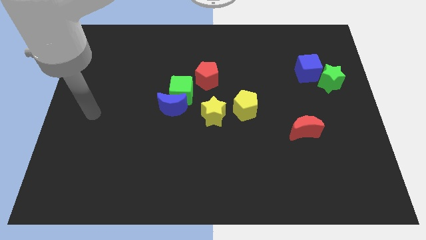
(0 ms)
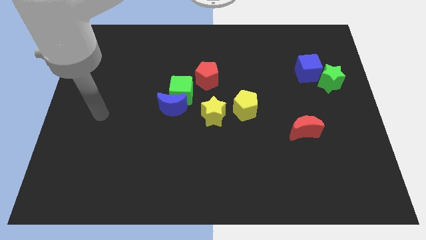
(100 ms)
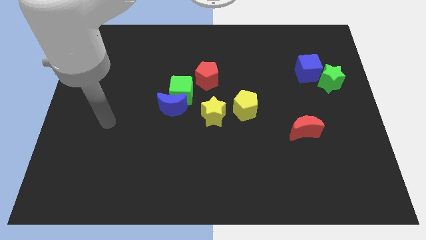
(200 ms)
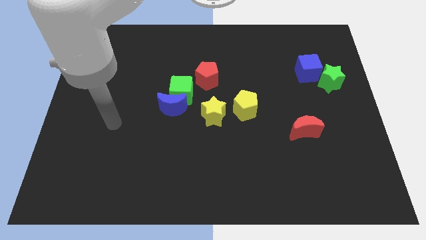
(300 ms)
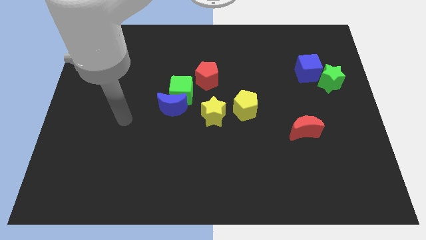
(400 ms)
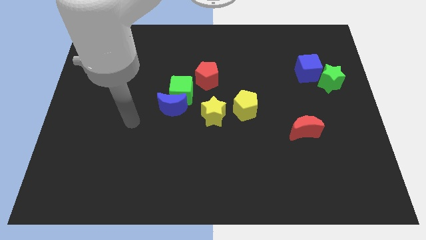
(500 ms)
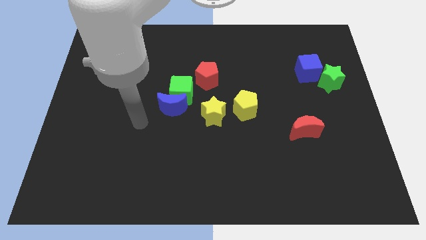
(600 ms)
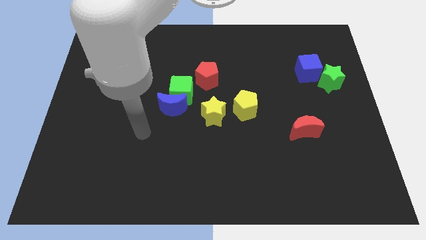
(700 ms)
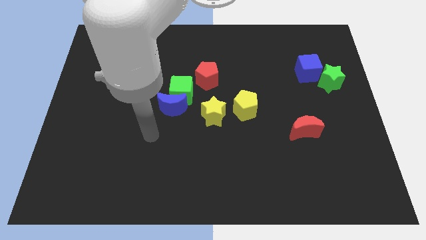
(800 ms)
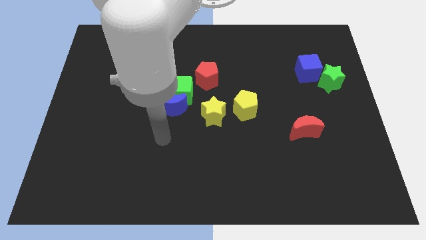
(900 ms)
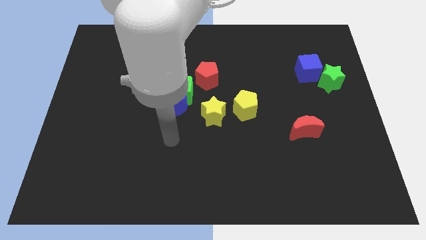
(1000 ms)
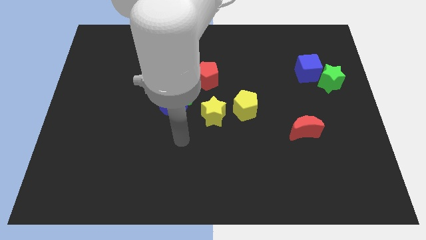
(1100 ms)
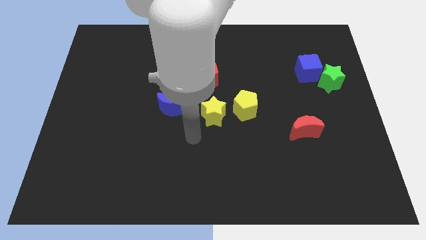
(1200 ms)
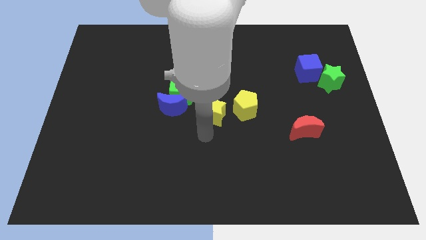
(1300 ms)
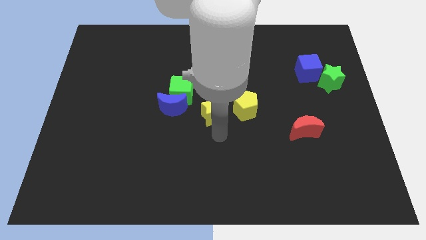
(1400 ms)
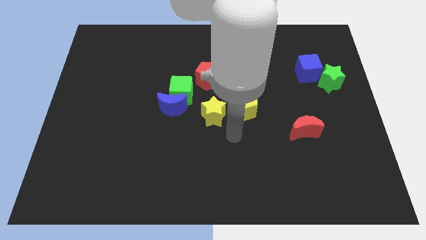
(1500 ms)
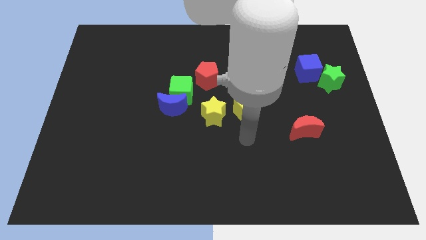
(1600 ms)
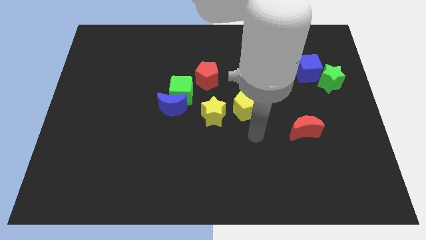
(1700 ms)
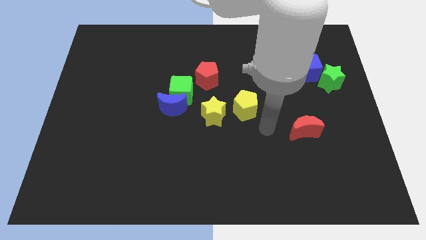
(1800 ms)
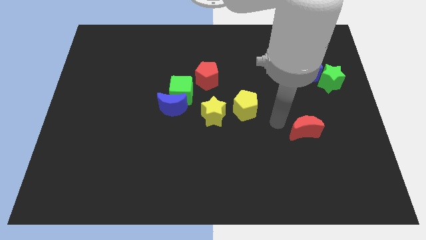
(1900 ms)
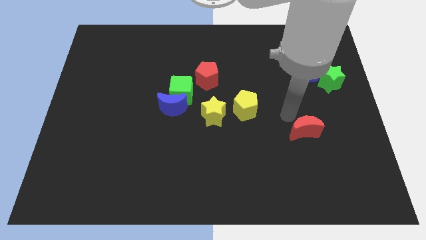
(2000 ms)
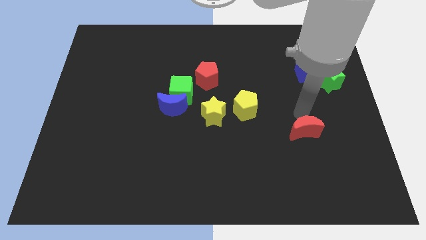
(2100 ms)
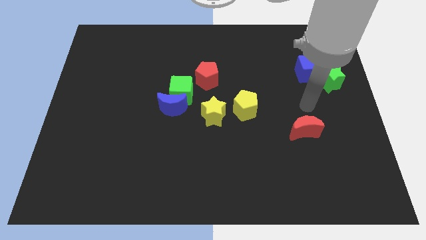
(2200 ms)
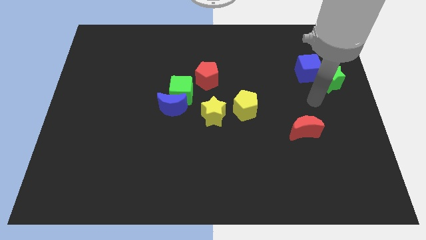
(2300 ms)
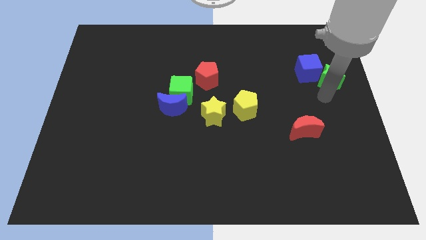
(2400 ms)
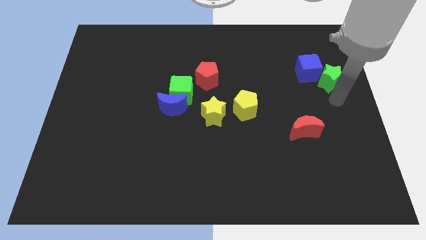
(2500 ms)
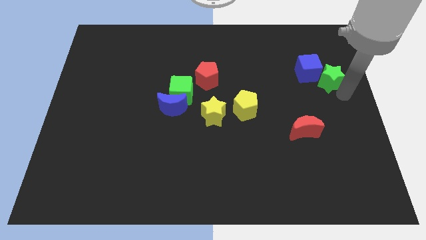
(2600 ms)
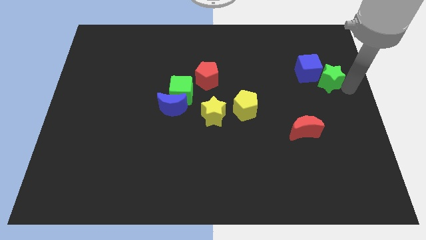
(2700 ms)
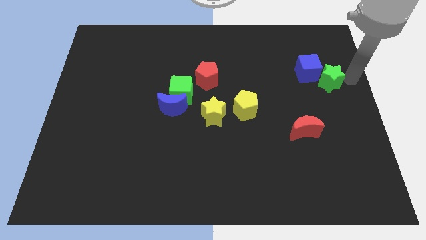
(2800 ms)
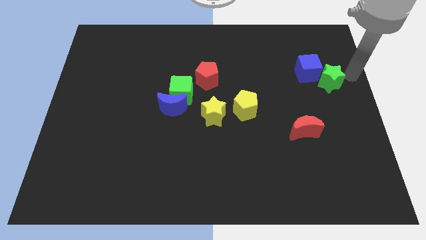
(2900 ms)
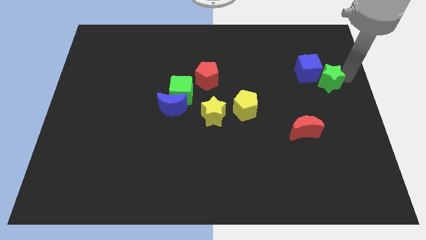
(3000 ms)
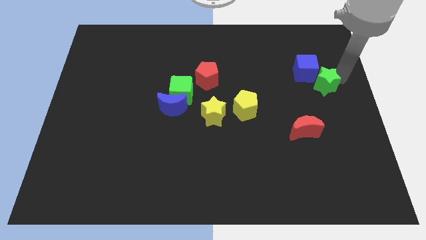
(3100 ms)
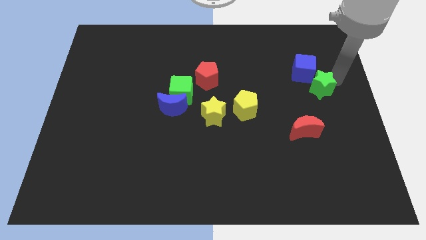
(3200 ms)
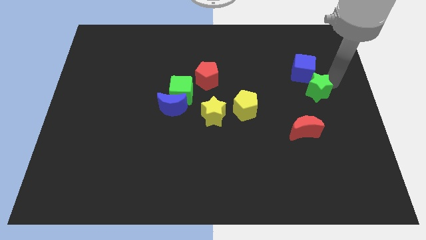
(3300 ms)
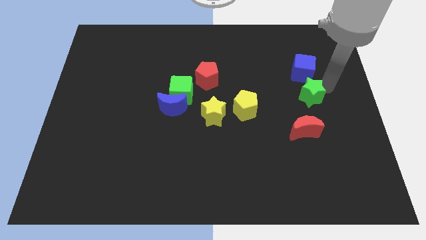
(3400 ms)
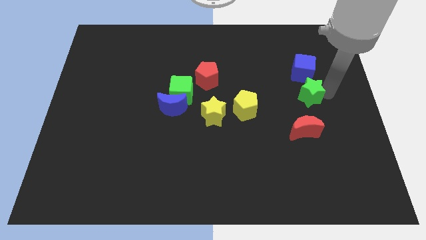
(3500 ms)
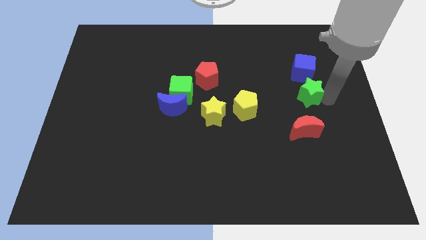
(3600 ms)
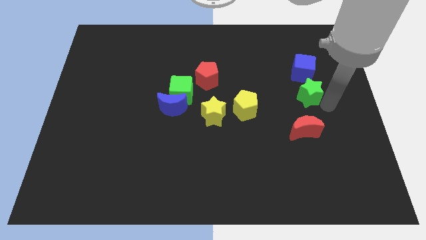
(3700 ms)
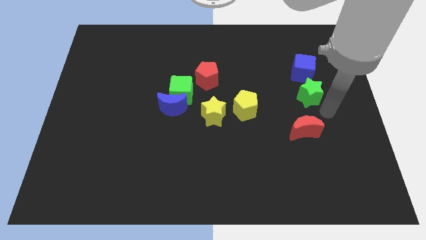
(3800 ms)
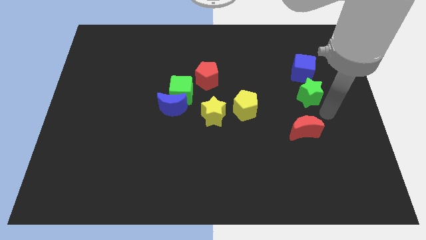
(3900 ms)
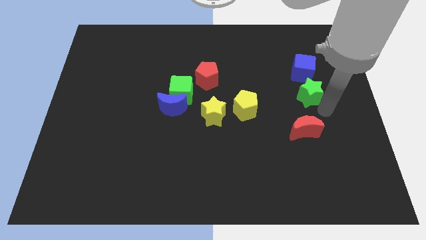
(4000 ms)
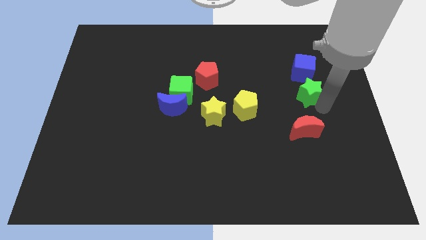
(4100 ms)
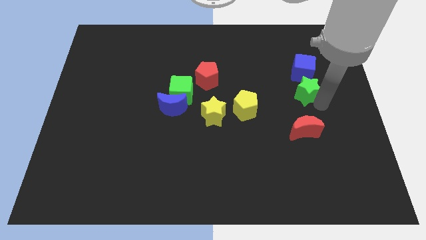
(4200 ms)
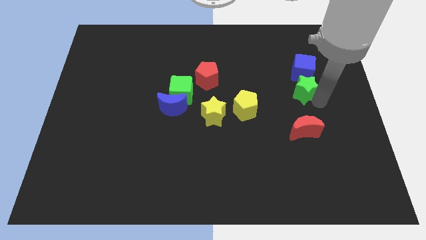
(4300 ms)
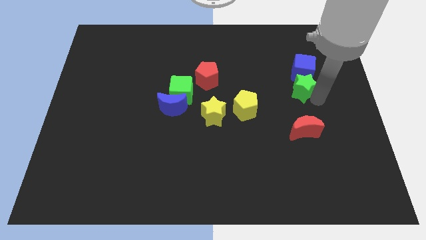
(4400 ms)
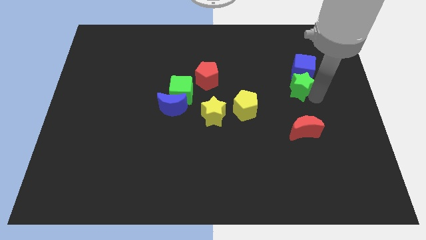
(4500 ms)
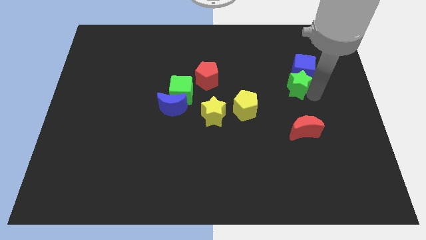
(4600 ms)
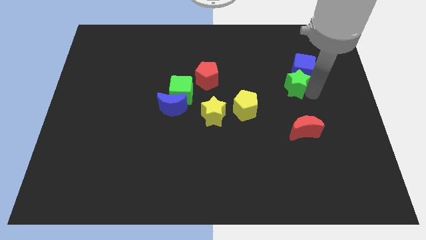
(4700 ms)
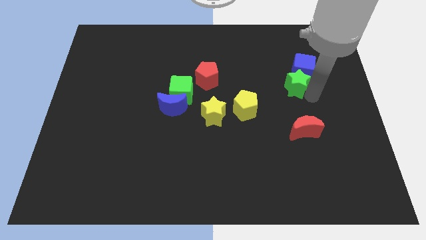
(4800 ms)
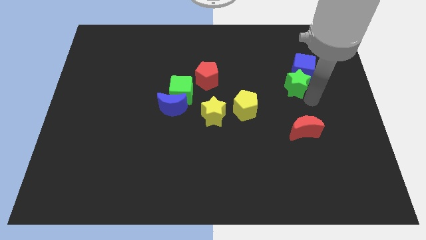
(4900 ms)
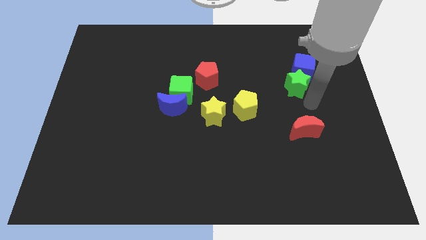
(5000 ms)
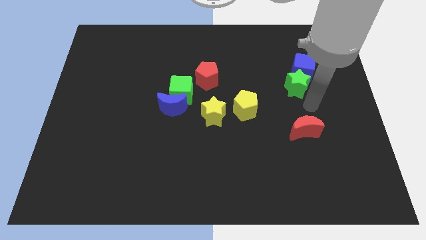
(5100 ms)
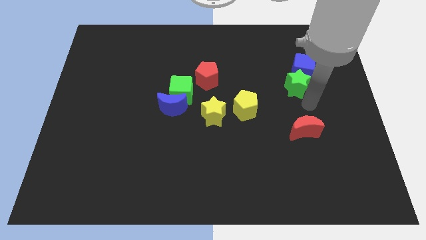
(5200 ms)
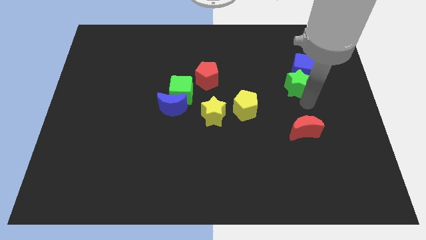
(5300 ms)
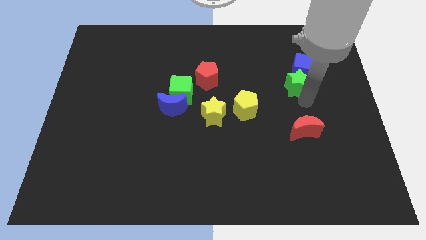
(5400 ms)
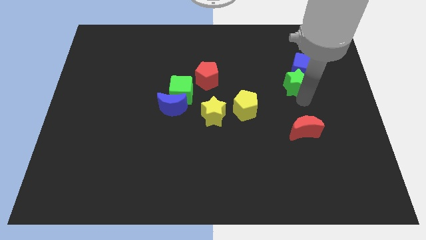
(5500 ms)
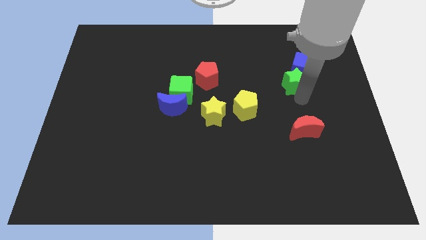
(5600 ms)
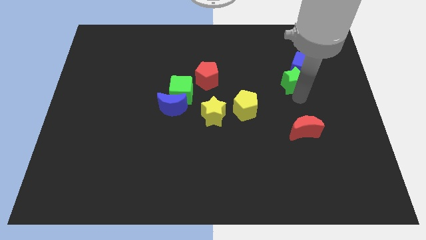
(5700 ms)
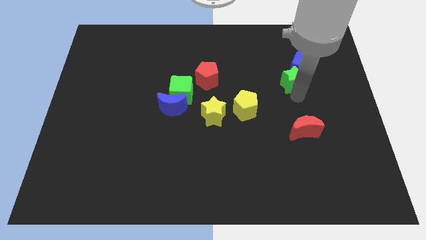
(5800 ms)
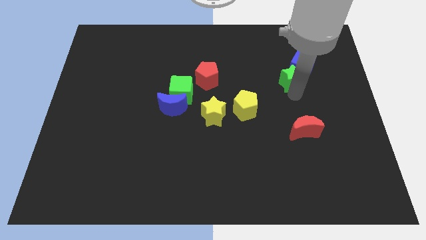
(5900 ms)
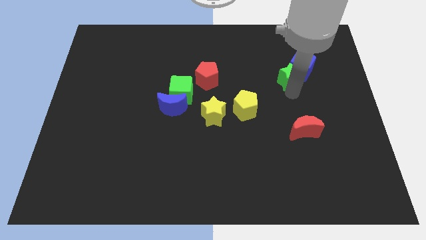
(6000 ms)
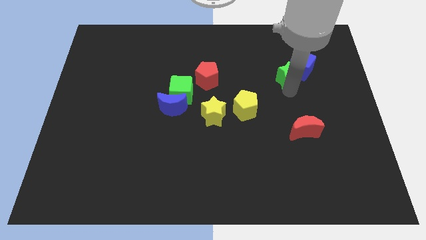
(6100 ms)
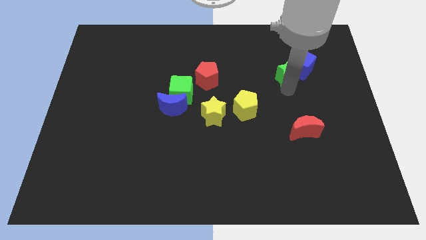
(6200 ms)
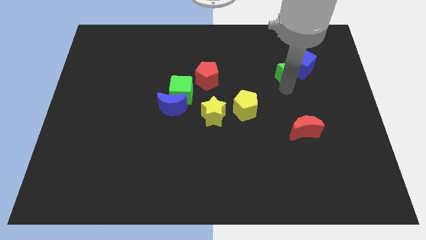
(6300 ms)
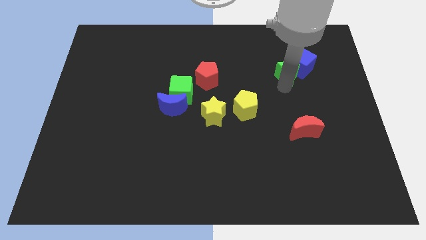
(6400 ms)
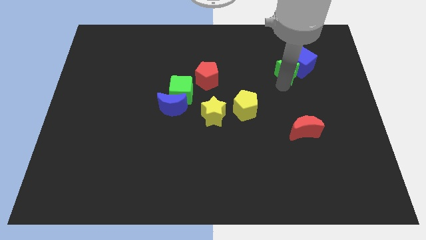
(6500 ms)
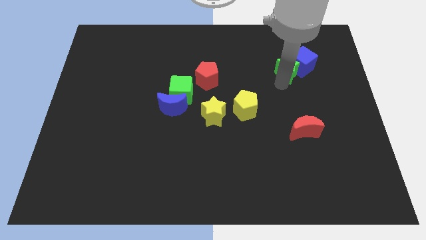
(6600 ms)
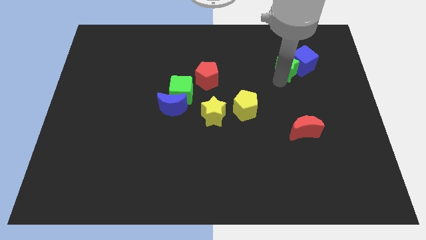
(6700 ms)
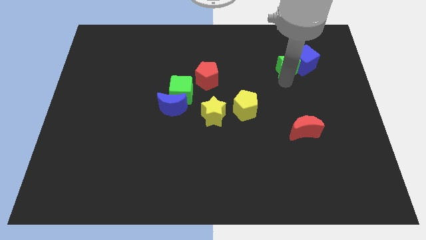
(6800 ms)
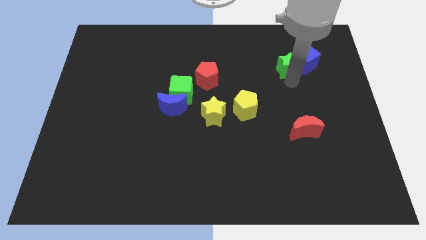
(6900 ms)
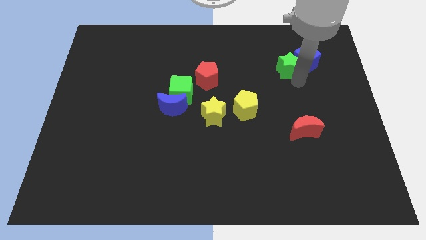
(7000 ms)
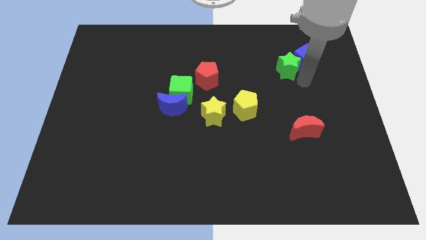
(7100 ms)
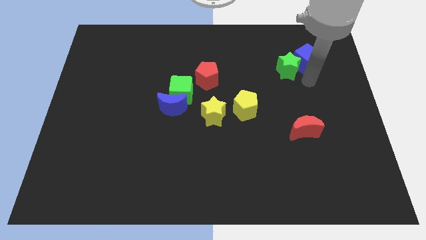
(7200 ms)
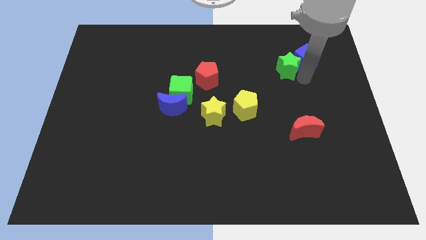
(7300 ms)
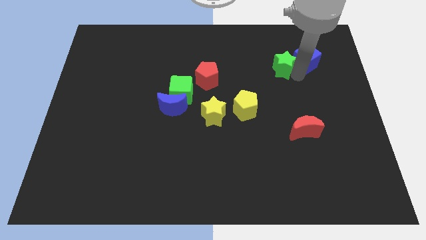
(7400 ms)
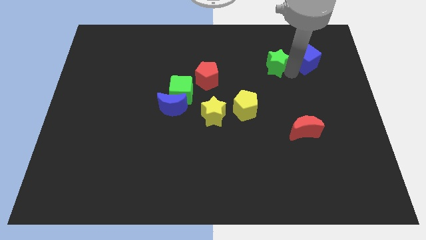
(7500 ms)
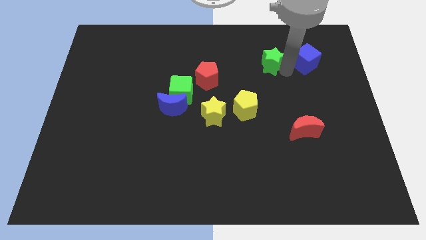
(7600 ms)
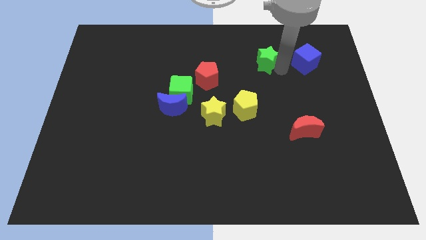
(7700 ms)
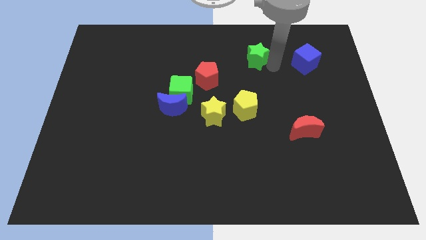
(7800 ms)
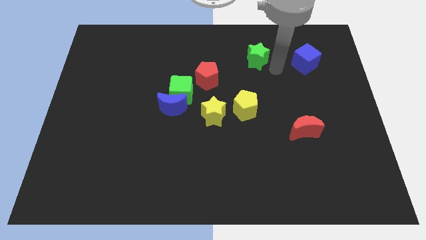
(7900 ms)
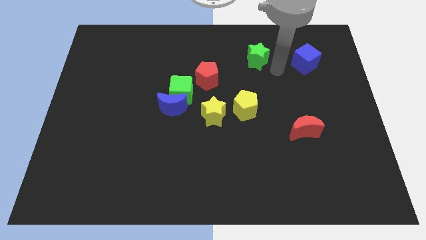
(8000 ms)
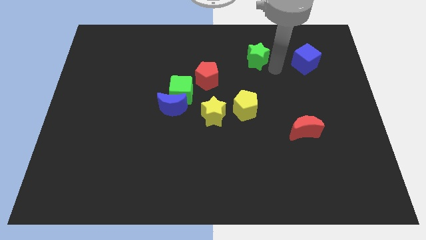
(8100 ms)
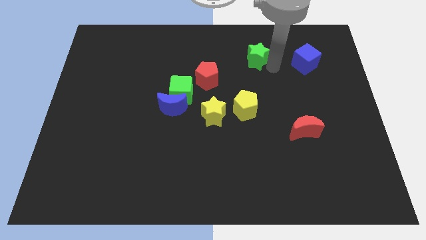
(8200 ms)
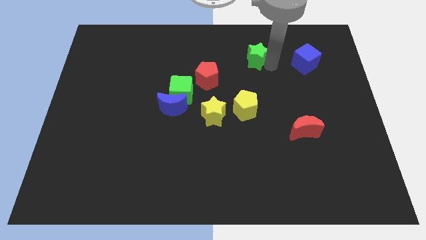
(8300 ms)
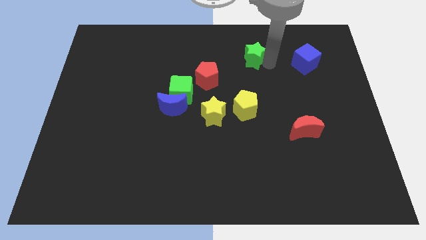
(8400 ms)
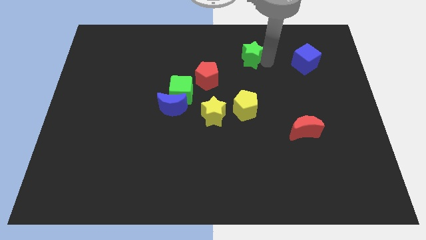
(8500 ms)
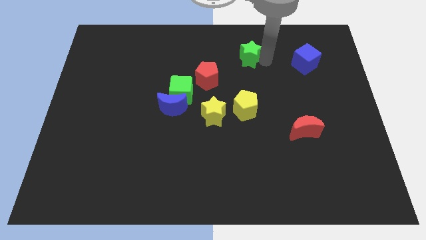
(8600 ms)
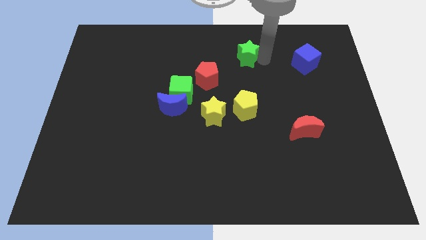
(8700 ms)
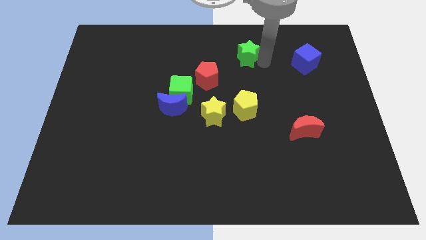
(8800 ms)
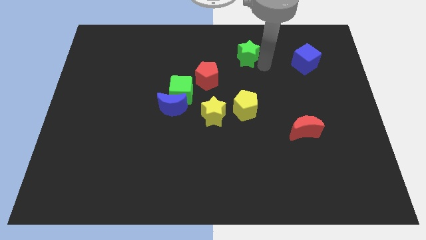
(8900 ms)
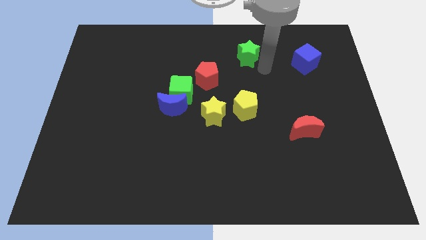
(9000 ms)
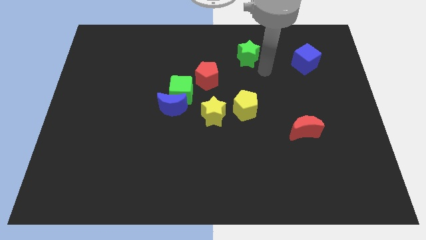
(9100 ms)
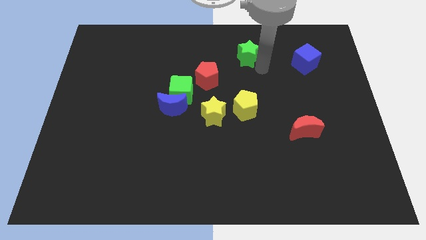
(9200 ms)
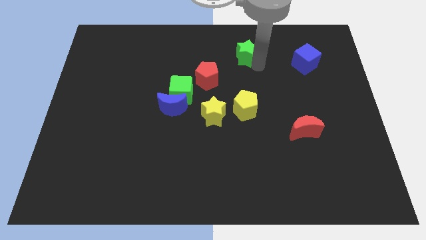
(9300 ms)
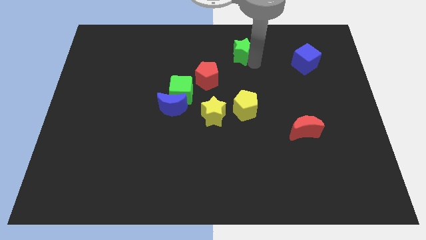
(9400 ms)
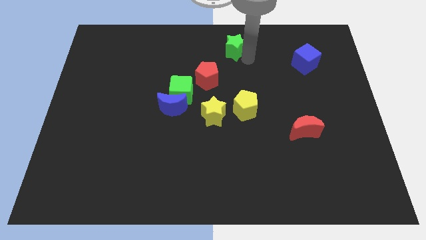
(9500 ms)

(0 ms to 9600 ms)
put the green star to the towards your base
